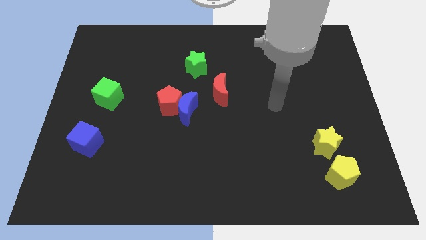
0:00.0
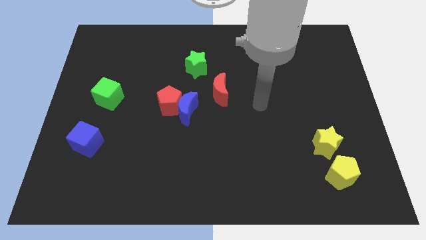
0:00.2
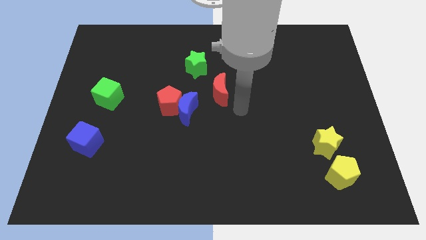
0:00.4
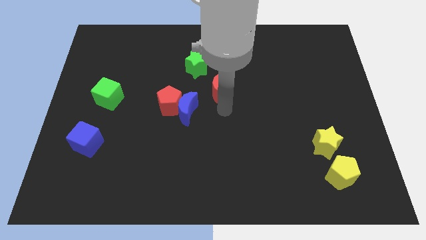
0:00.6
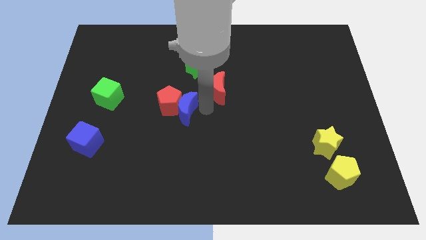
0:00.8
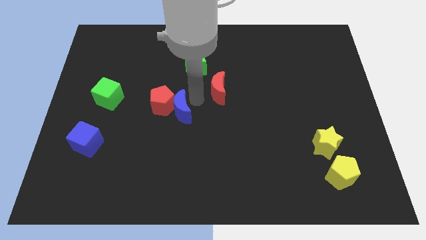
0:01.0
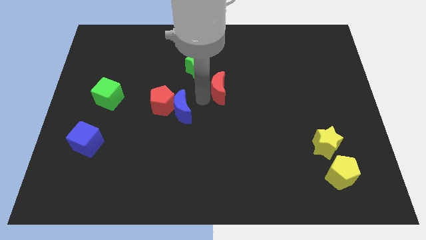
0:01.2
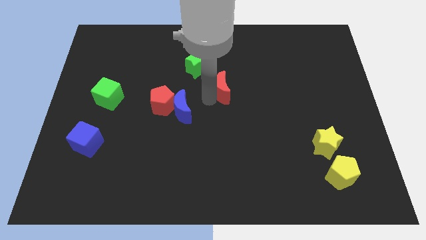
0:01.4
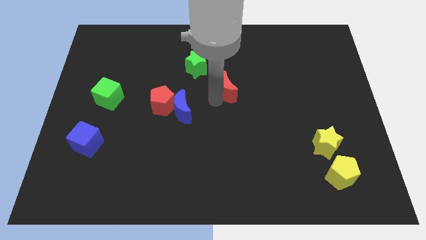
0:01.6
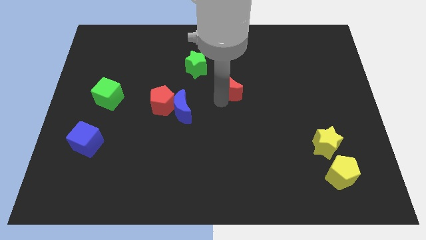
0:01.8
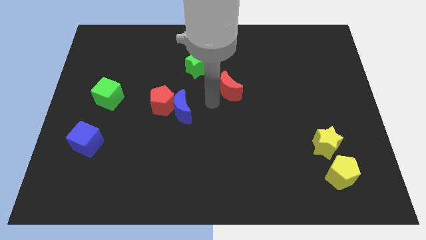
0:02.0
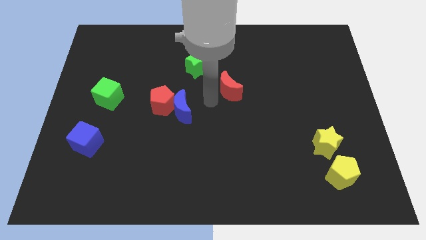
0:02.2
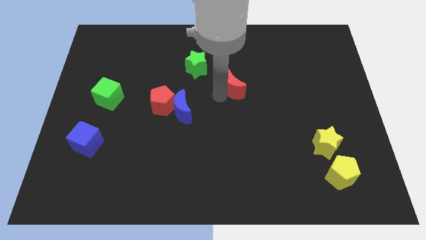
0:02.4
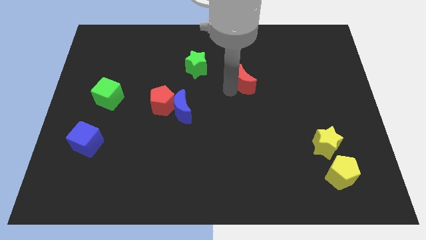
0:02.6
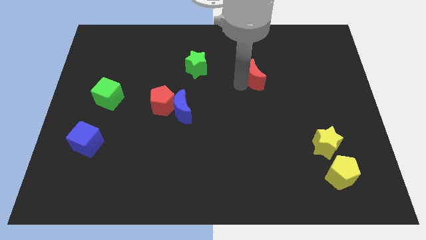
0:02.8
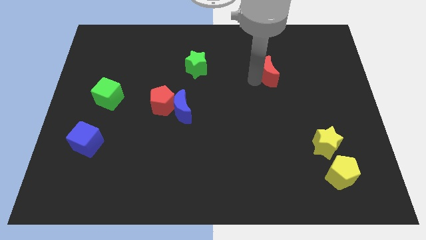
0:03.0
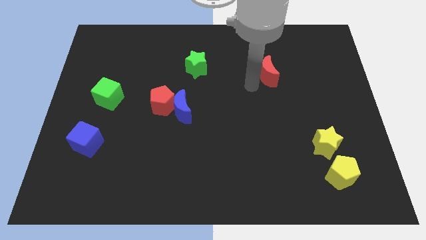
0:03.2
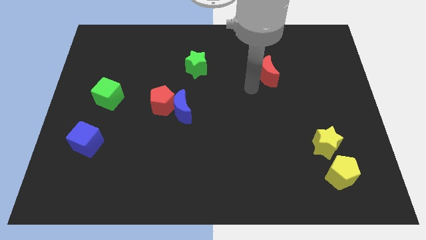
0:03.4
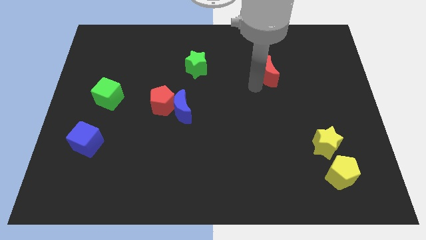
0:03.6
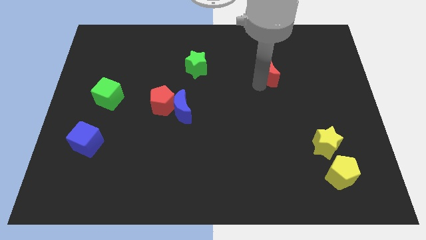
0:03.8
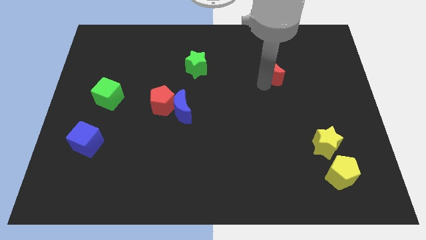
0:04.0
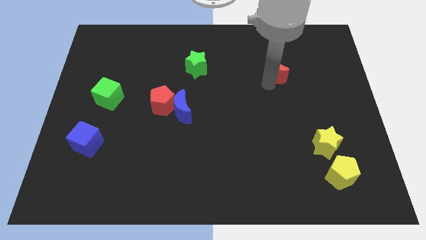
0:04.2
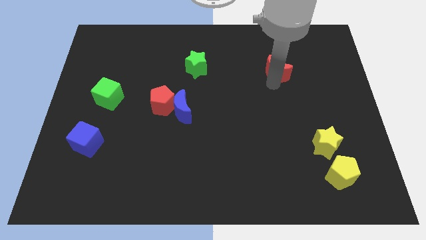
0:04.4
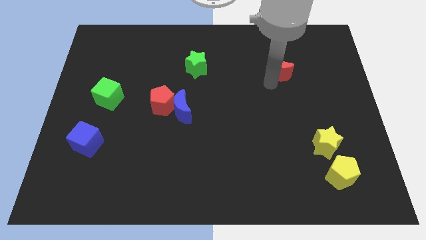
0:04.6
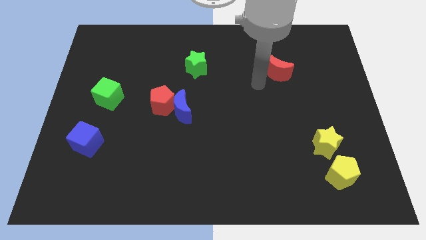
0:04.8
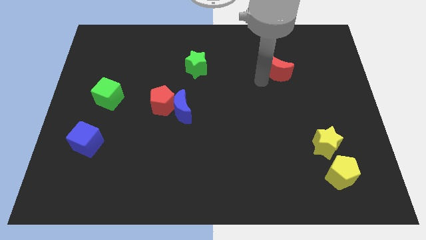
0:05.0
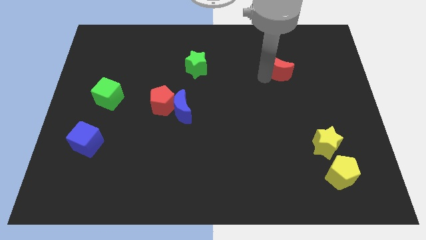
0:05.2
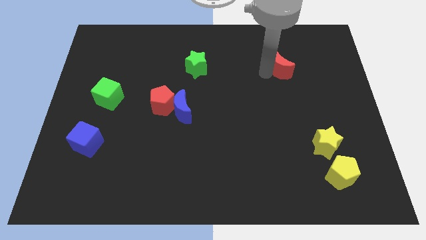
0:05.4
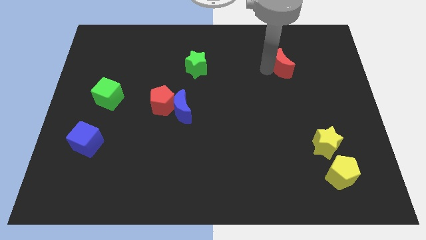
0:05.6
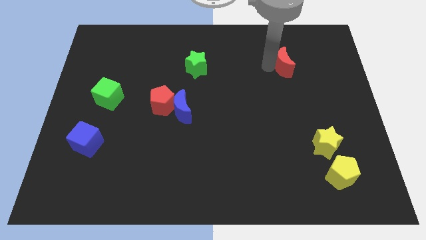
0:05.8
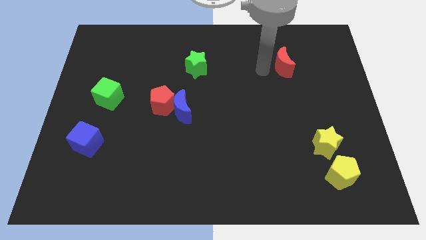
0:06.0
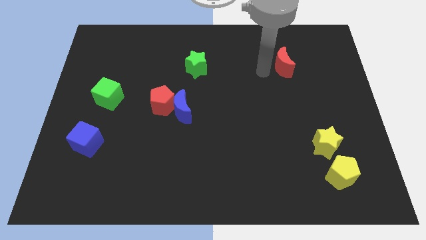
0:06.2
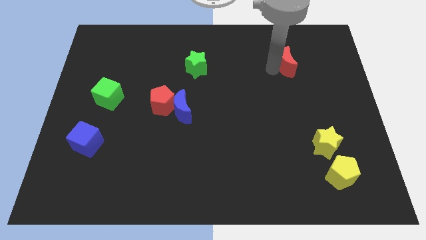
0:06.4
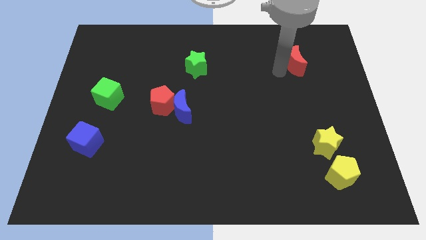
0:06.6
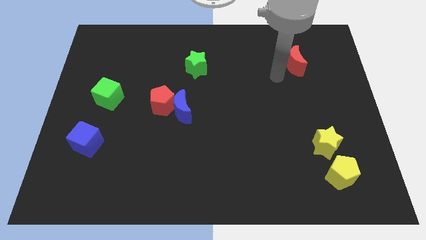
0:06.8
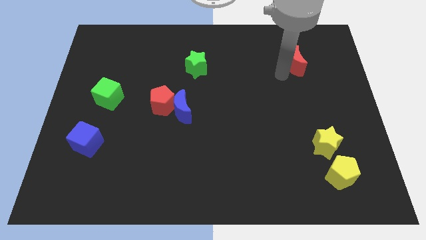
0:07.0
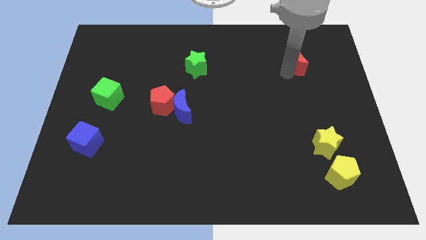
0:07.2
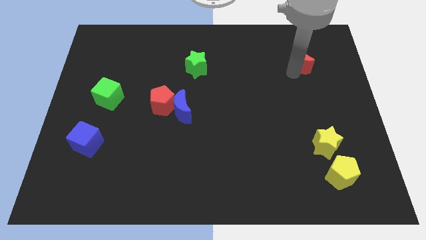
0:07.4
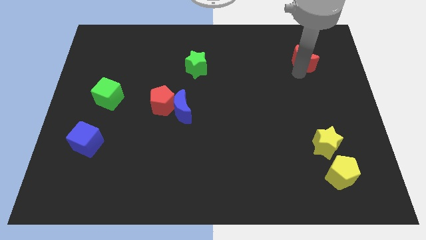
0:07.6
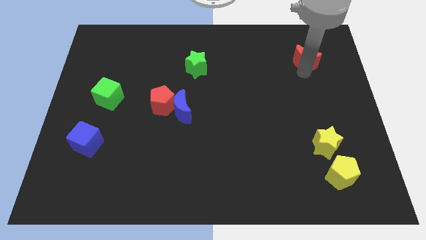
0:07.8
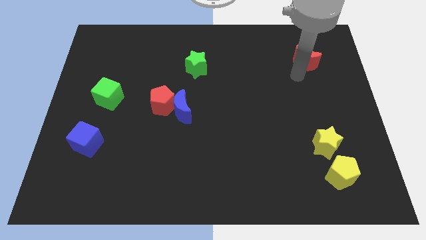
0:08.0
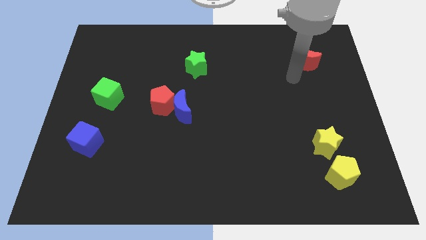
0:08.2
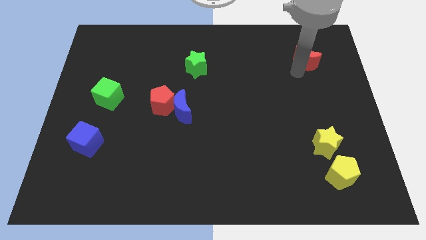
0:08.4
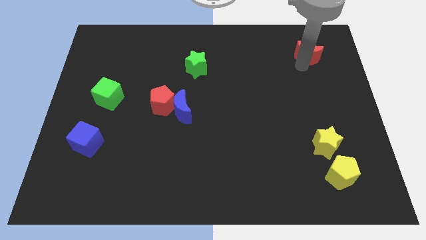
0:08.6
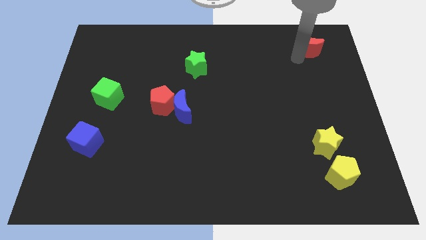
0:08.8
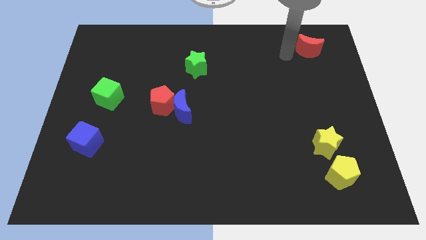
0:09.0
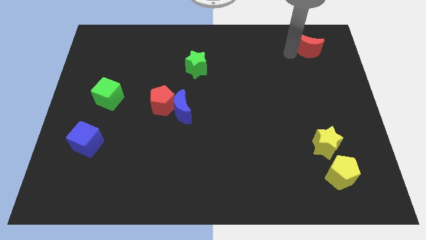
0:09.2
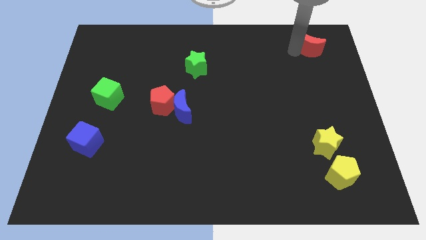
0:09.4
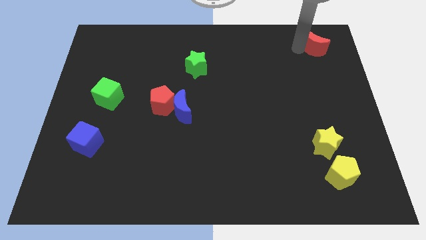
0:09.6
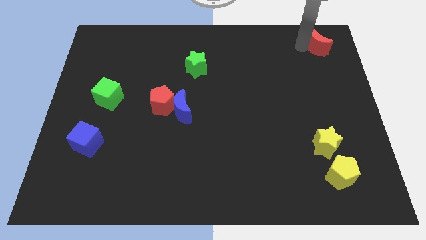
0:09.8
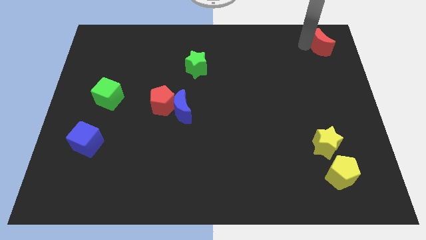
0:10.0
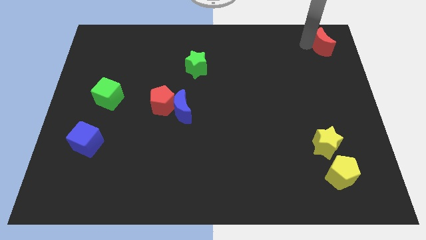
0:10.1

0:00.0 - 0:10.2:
move the red moon to the top right of the board

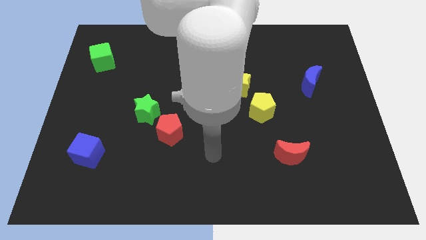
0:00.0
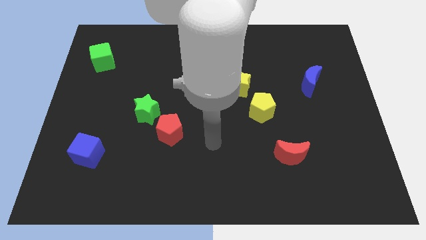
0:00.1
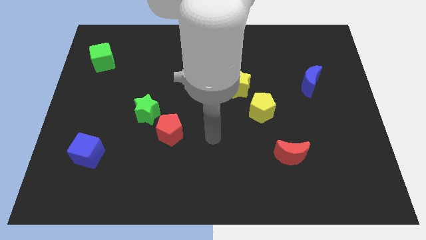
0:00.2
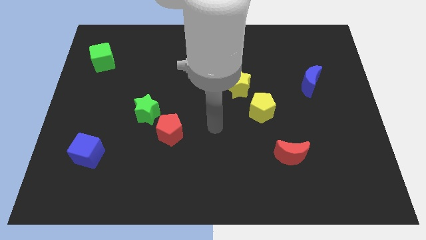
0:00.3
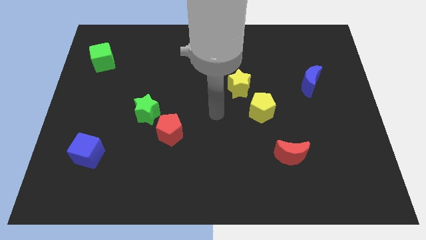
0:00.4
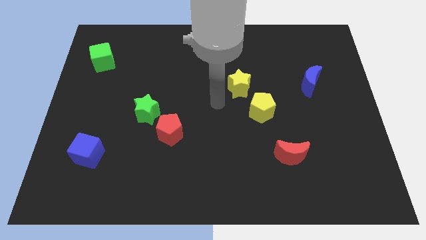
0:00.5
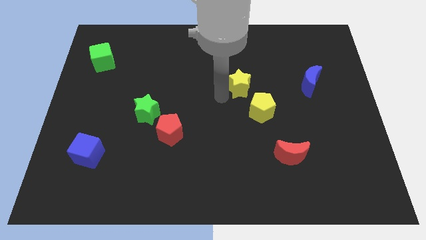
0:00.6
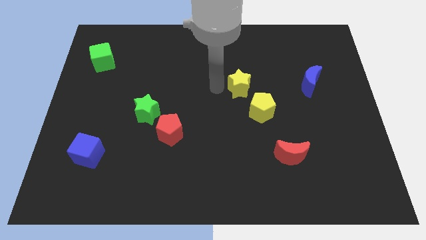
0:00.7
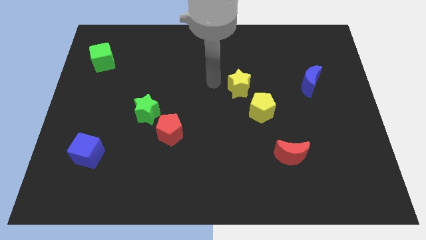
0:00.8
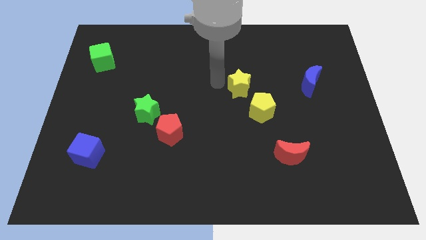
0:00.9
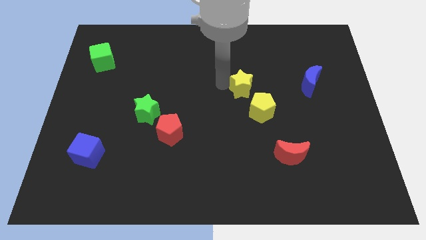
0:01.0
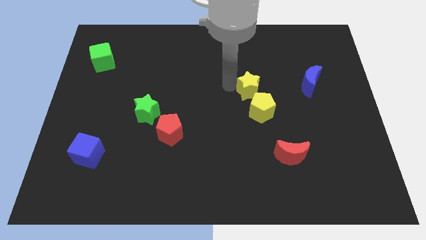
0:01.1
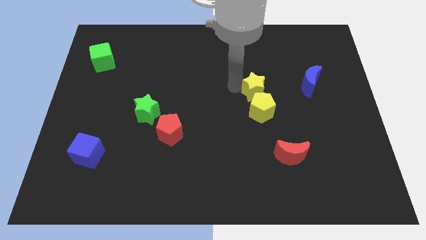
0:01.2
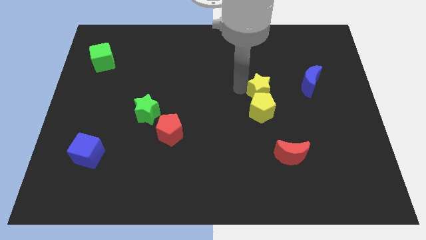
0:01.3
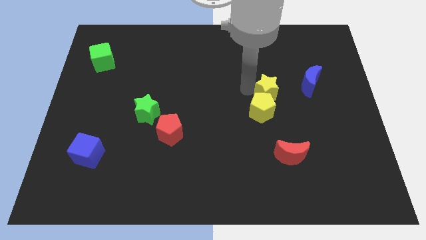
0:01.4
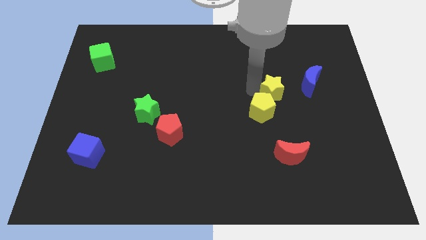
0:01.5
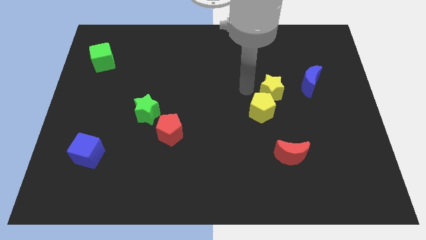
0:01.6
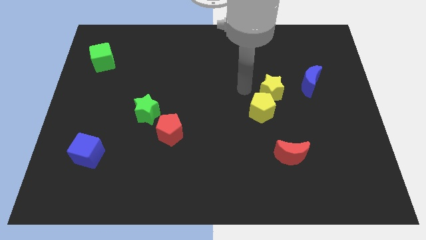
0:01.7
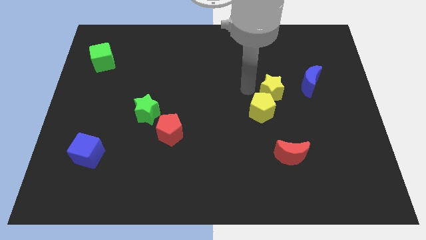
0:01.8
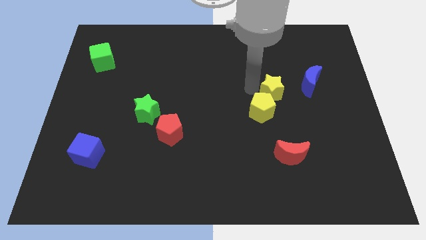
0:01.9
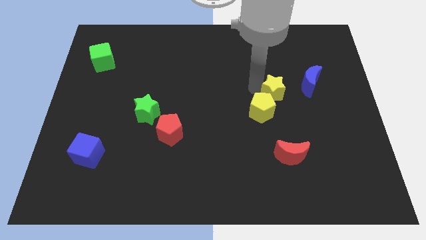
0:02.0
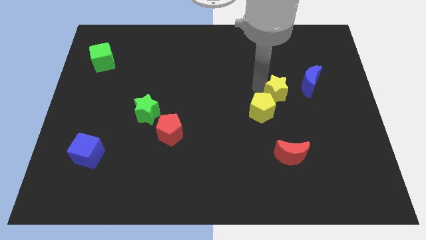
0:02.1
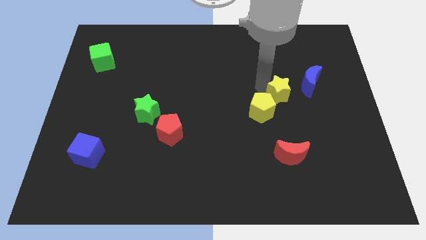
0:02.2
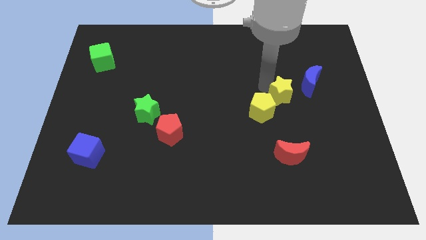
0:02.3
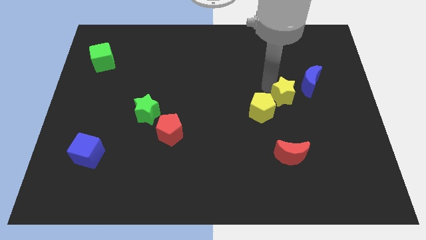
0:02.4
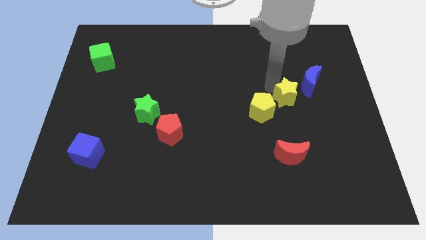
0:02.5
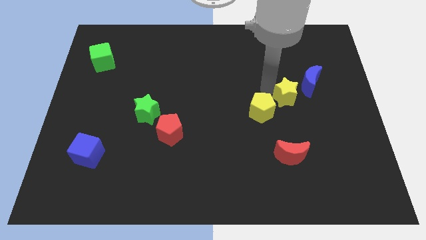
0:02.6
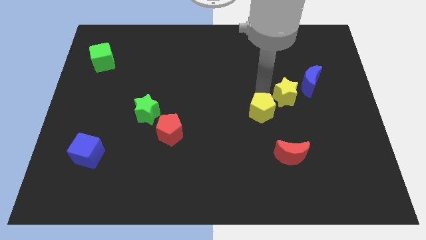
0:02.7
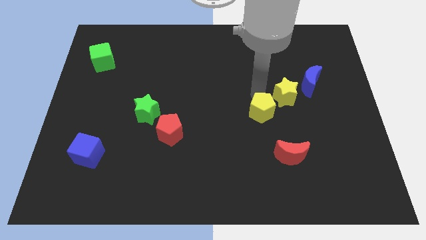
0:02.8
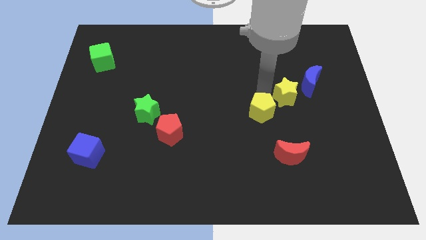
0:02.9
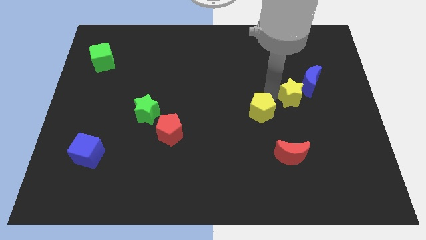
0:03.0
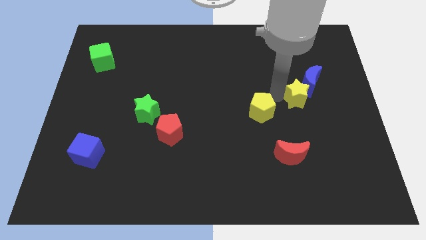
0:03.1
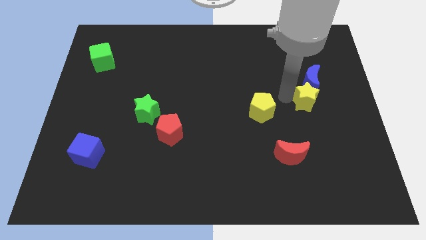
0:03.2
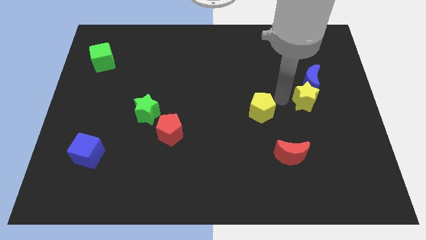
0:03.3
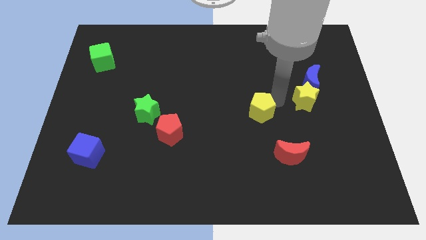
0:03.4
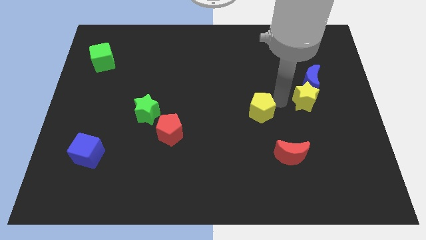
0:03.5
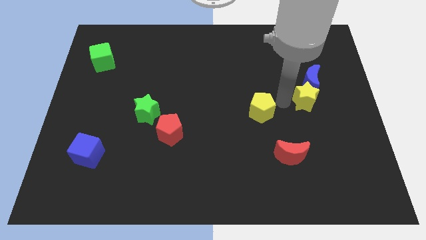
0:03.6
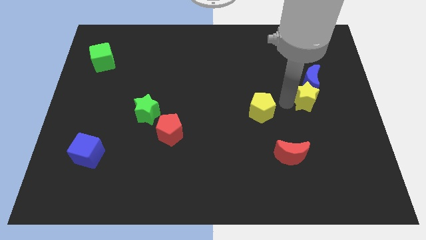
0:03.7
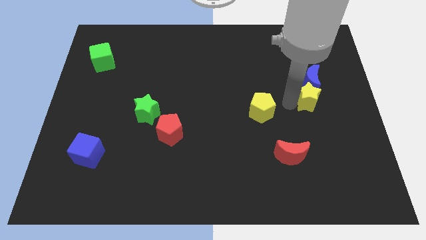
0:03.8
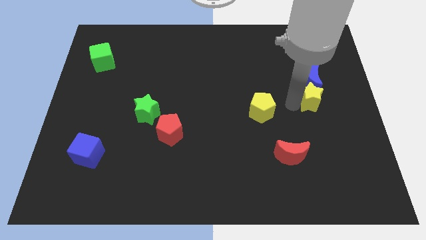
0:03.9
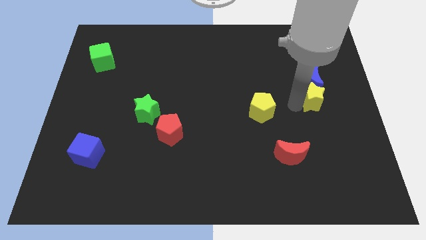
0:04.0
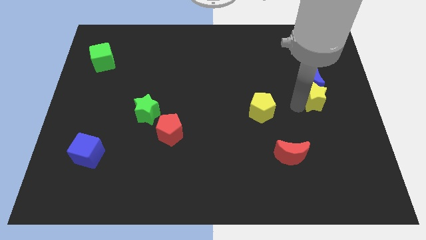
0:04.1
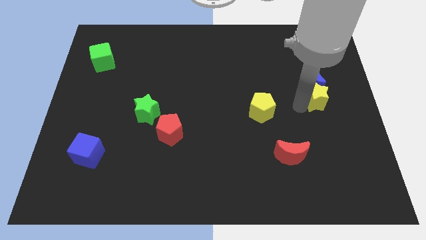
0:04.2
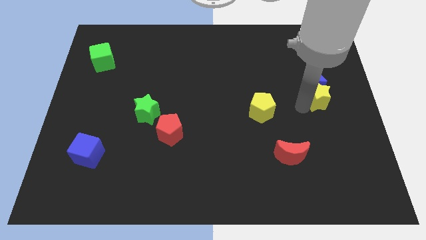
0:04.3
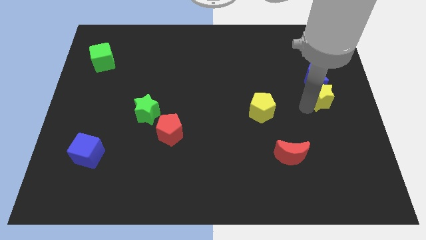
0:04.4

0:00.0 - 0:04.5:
push the yellow star to the right side of the board
